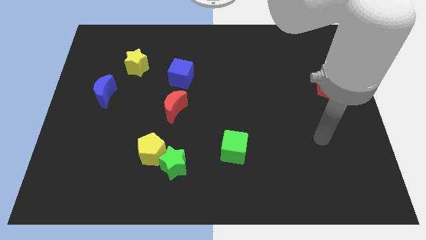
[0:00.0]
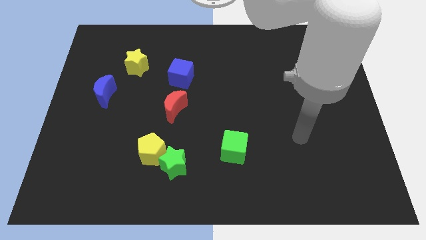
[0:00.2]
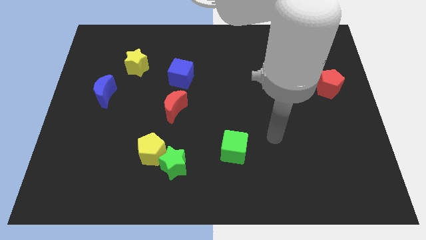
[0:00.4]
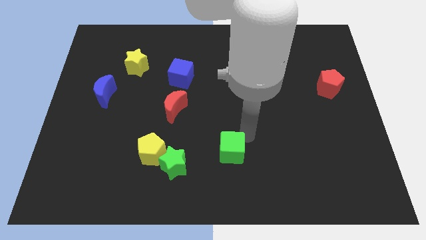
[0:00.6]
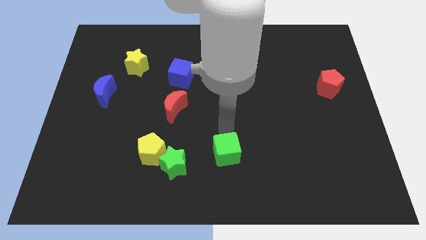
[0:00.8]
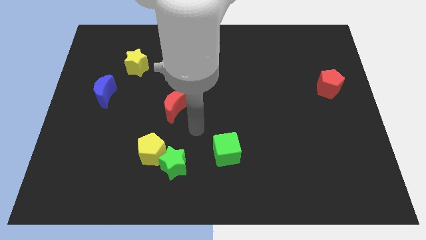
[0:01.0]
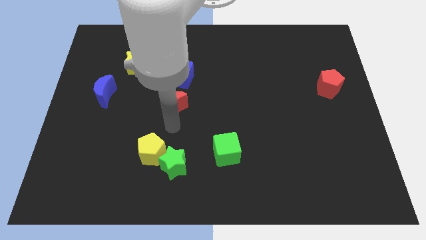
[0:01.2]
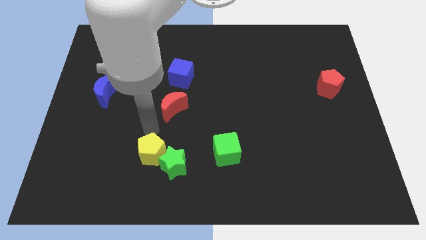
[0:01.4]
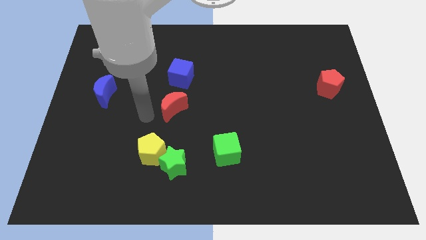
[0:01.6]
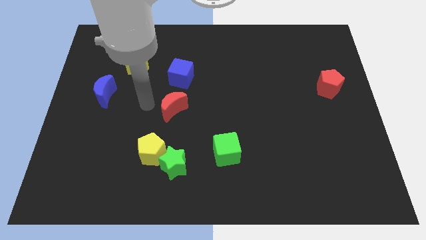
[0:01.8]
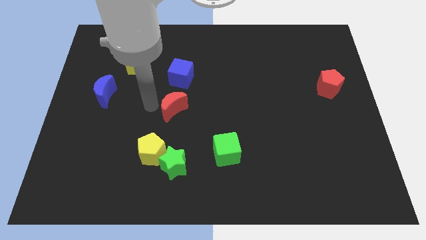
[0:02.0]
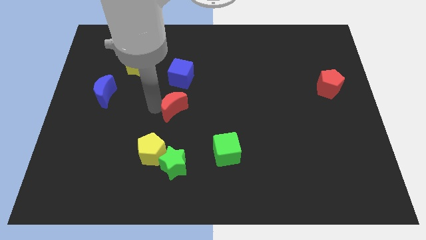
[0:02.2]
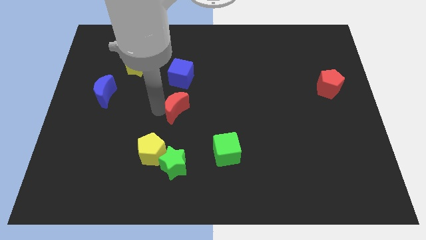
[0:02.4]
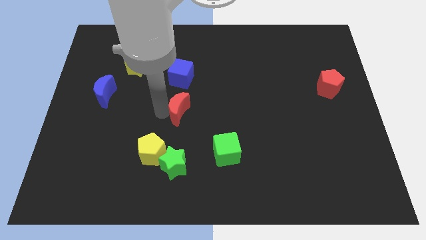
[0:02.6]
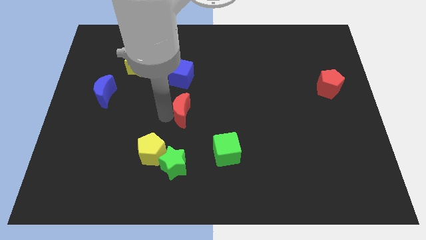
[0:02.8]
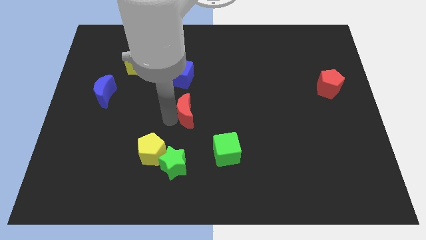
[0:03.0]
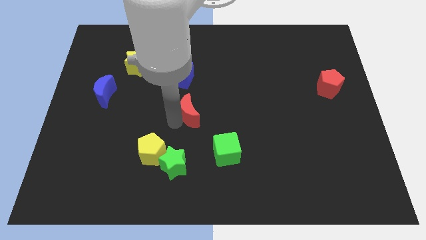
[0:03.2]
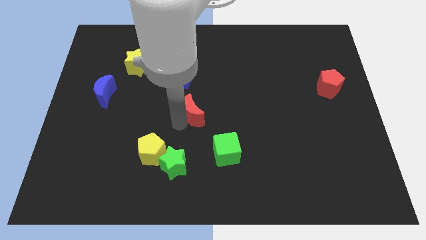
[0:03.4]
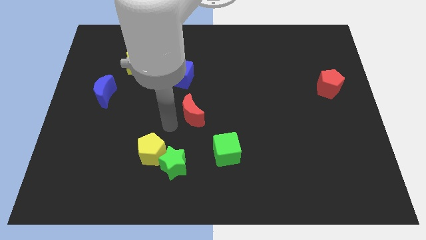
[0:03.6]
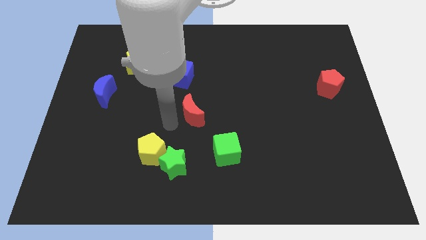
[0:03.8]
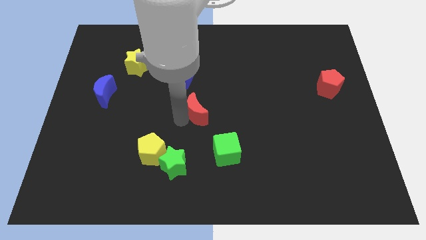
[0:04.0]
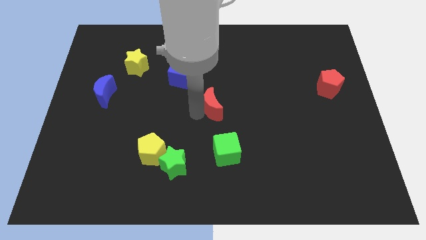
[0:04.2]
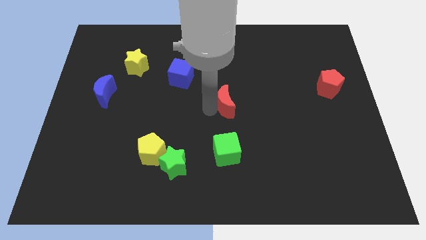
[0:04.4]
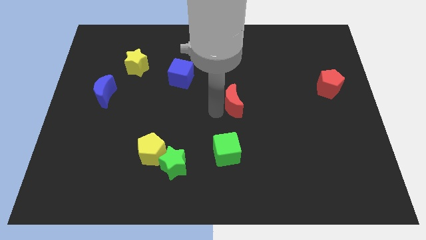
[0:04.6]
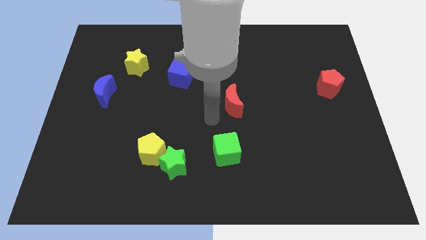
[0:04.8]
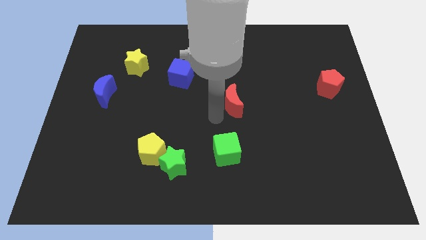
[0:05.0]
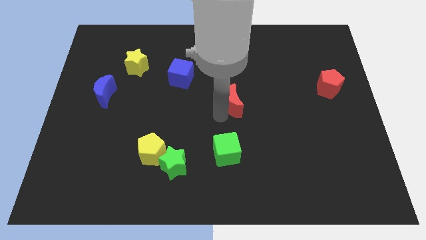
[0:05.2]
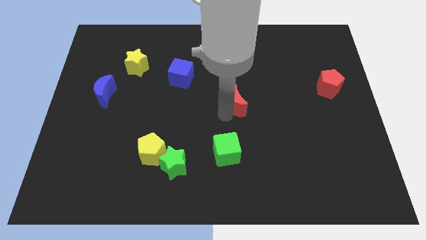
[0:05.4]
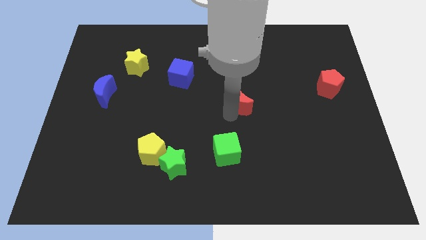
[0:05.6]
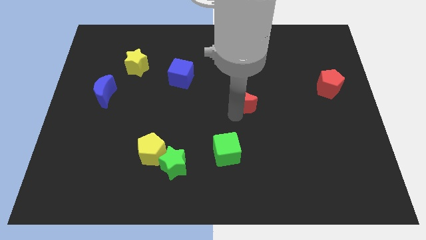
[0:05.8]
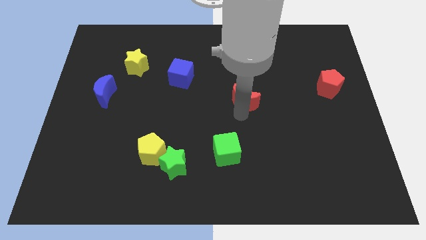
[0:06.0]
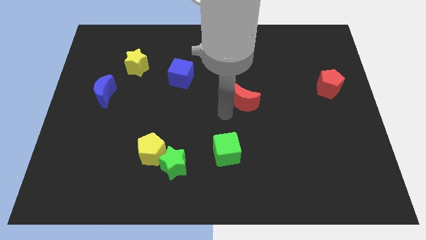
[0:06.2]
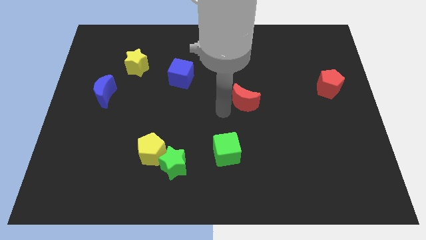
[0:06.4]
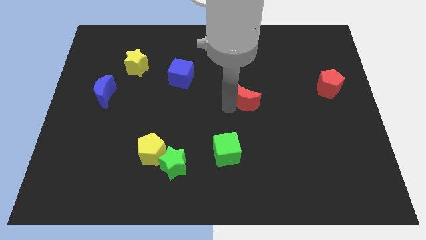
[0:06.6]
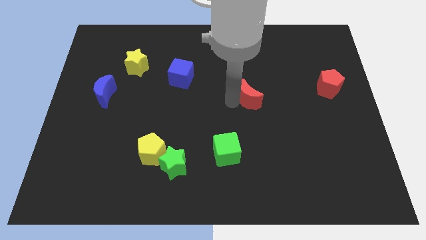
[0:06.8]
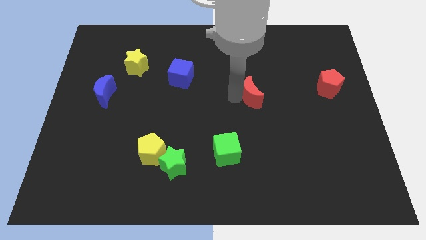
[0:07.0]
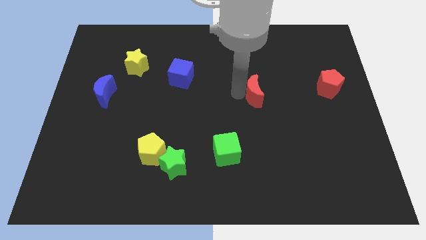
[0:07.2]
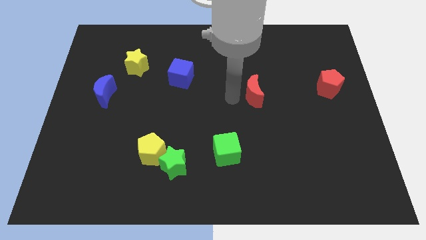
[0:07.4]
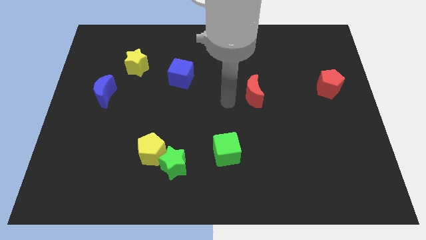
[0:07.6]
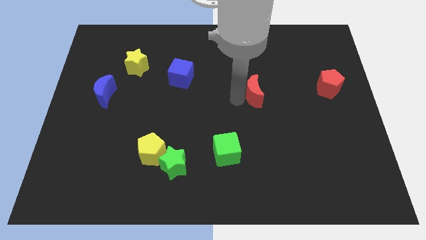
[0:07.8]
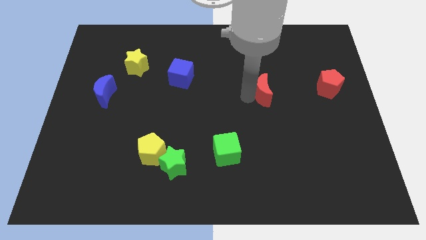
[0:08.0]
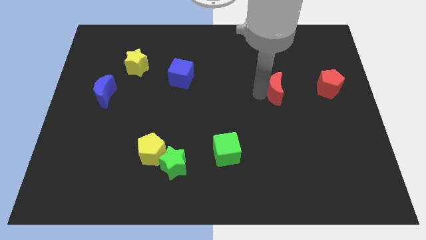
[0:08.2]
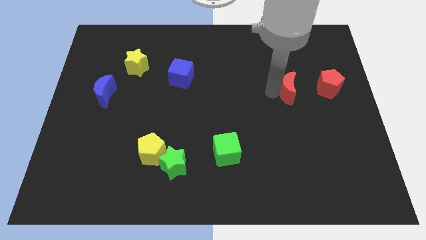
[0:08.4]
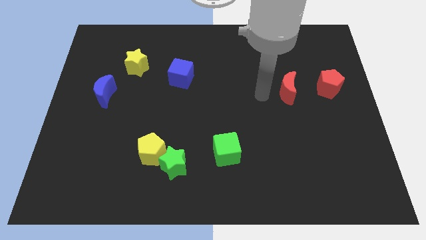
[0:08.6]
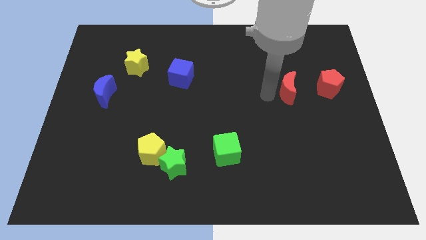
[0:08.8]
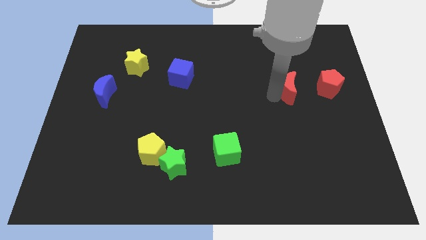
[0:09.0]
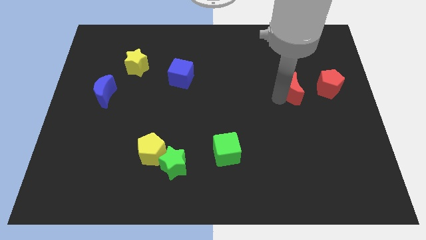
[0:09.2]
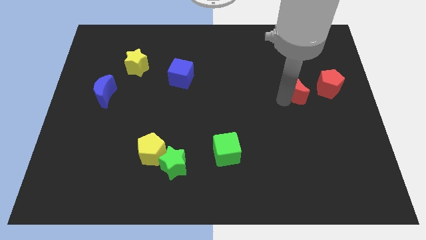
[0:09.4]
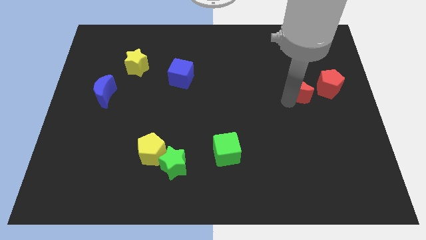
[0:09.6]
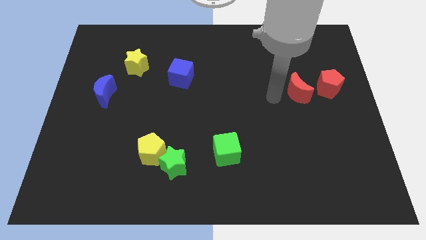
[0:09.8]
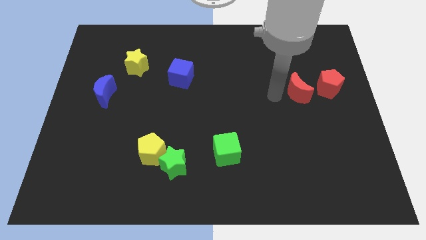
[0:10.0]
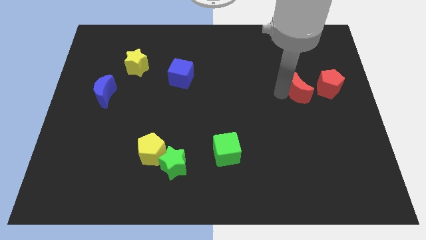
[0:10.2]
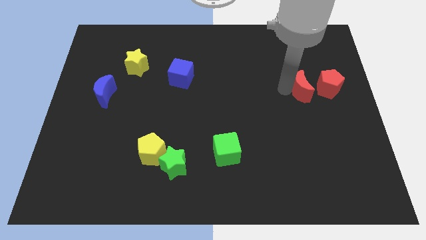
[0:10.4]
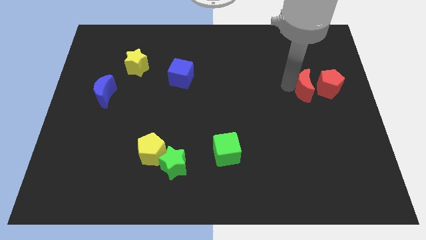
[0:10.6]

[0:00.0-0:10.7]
push the red moon to the red pentagon

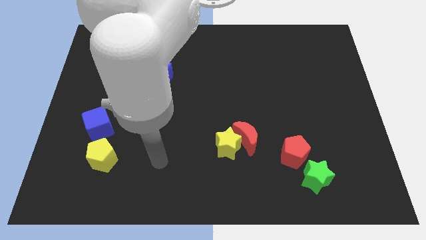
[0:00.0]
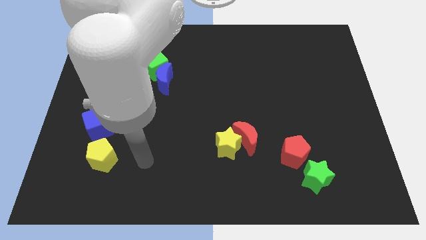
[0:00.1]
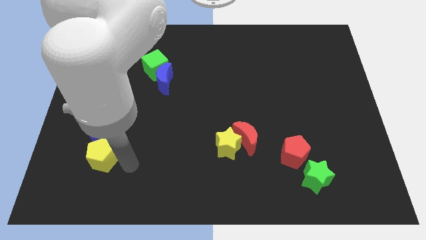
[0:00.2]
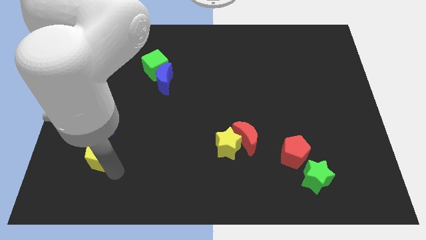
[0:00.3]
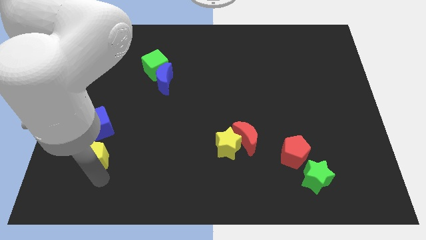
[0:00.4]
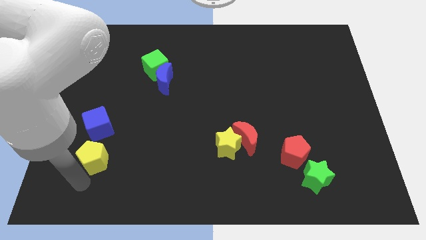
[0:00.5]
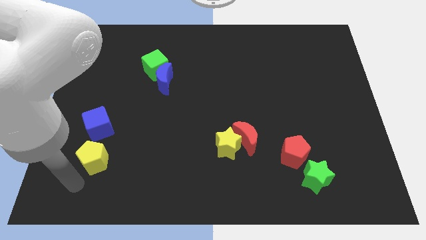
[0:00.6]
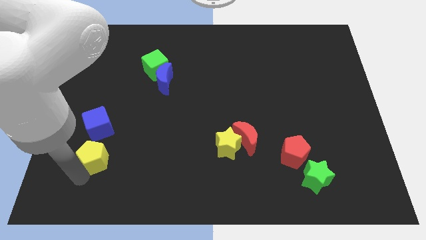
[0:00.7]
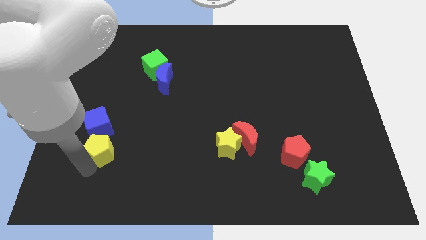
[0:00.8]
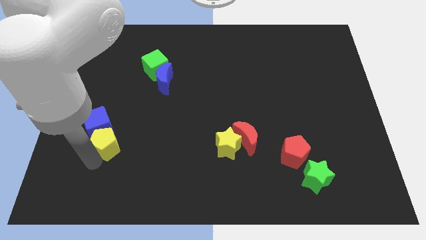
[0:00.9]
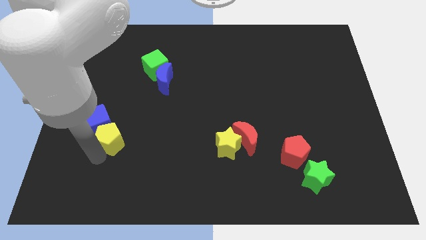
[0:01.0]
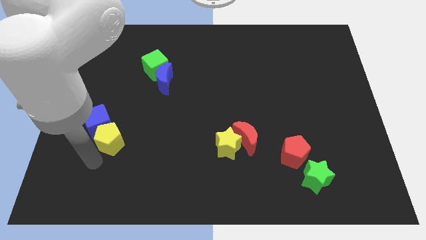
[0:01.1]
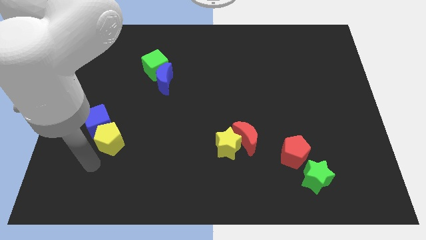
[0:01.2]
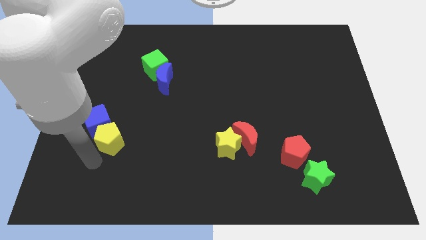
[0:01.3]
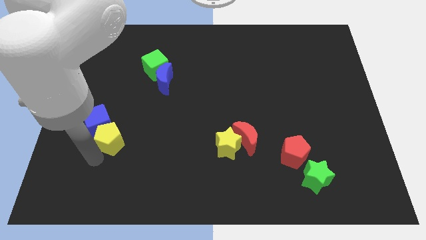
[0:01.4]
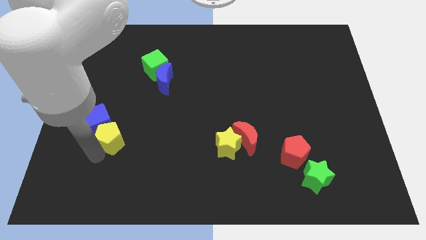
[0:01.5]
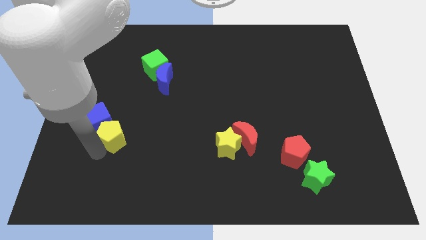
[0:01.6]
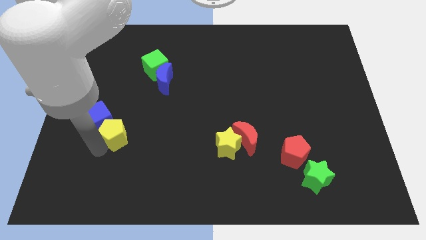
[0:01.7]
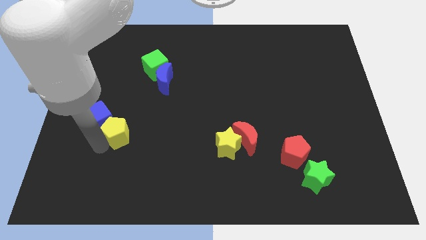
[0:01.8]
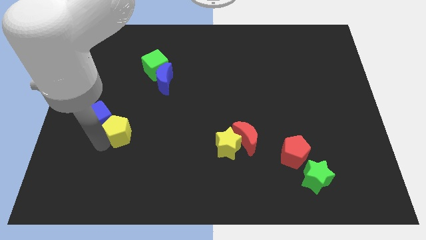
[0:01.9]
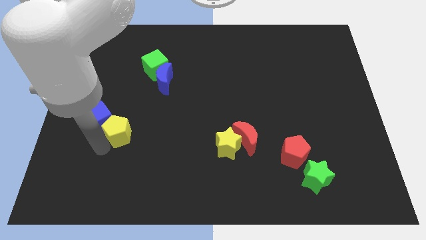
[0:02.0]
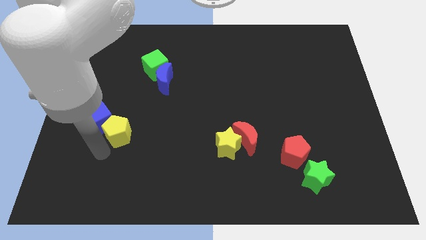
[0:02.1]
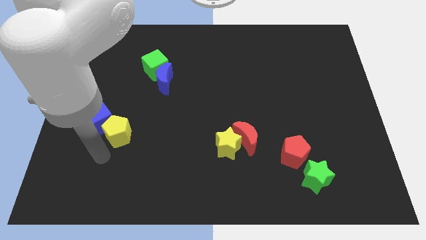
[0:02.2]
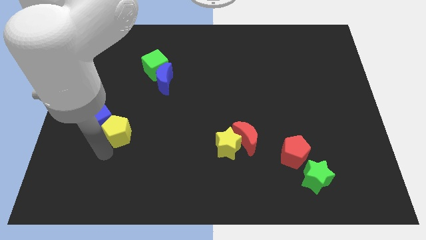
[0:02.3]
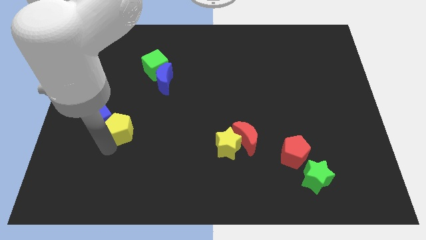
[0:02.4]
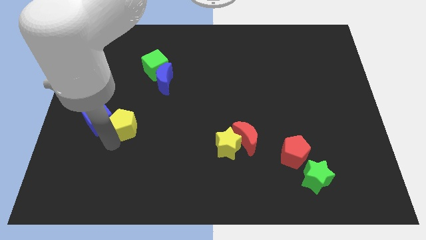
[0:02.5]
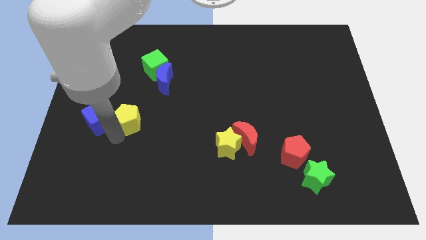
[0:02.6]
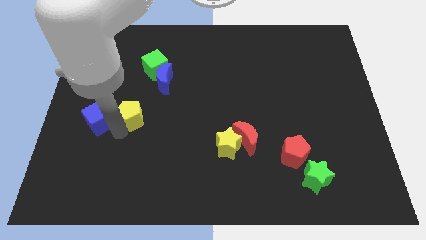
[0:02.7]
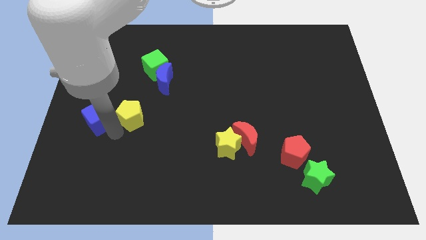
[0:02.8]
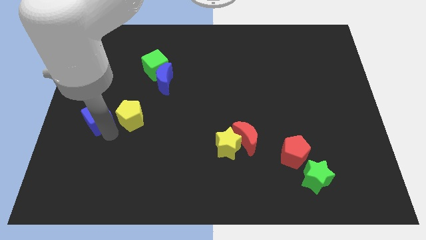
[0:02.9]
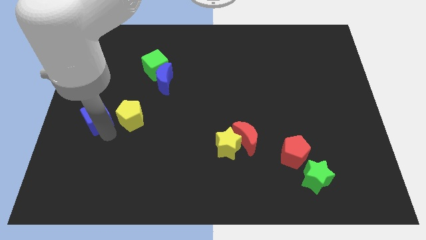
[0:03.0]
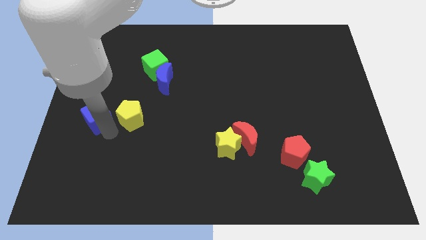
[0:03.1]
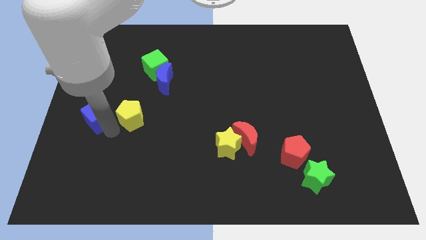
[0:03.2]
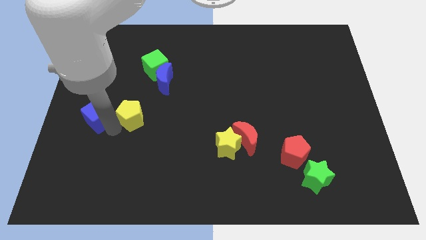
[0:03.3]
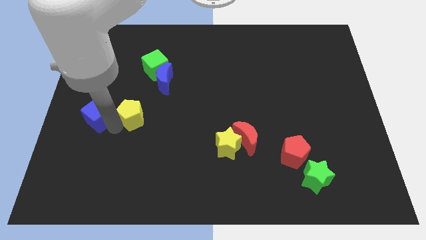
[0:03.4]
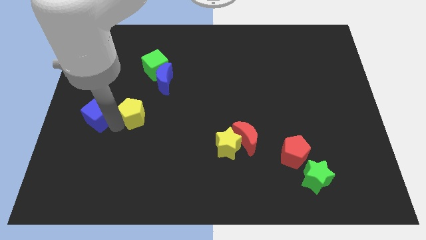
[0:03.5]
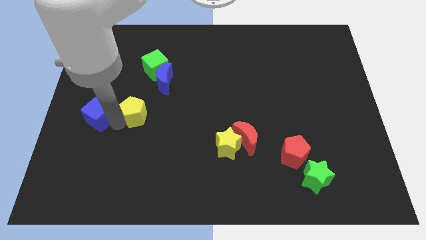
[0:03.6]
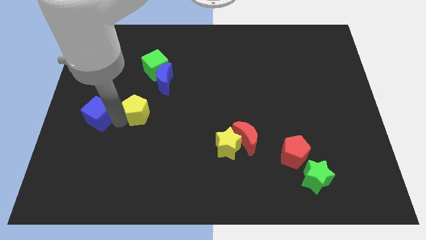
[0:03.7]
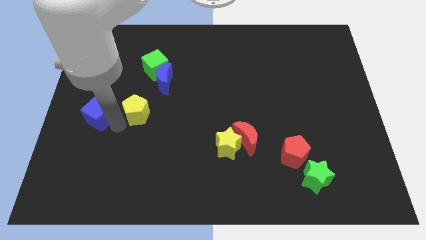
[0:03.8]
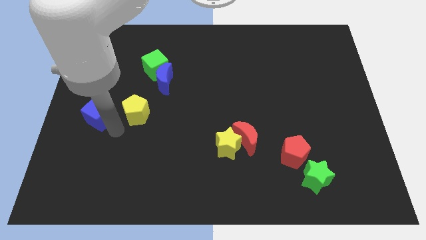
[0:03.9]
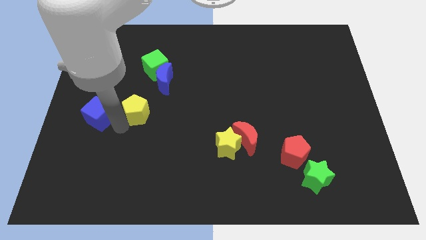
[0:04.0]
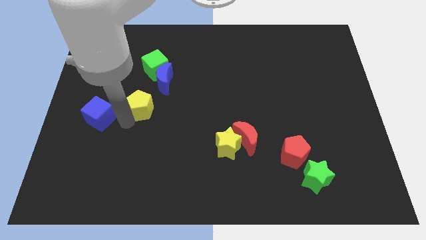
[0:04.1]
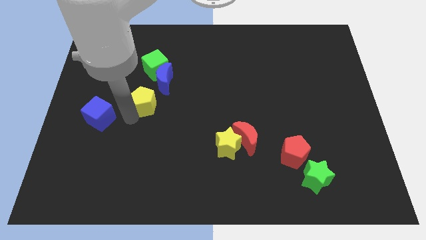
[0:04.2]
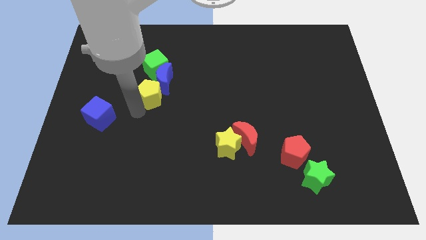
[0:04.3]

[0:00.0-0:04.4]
put the yellow pentagon to the blue moon
